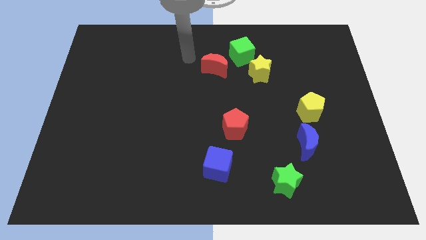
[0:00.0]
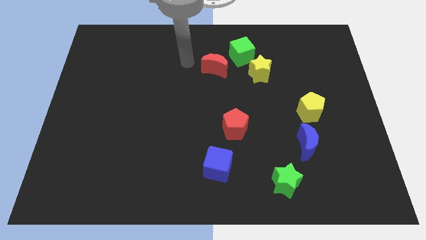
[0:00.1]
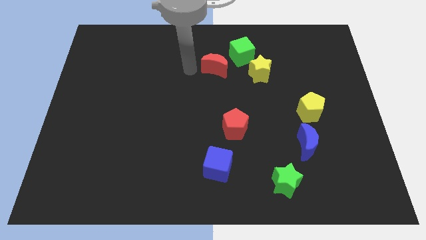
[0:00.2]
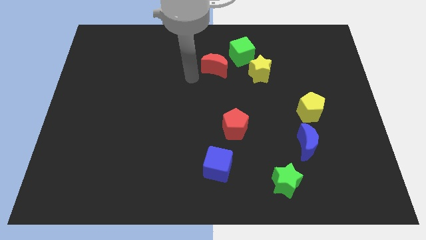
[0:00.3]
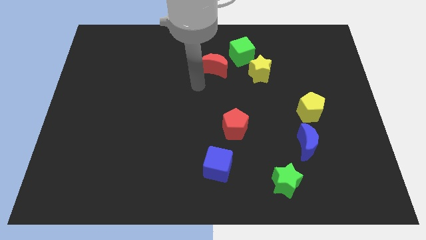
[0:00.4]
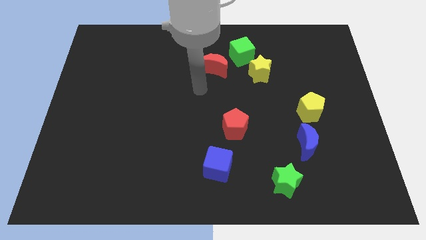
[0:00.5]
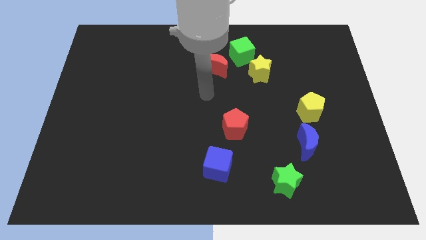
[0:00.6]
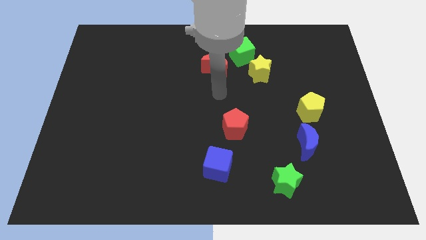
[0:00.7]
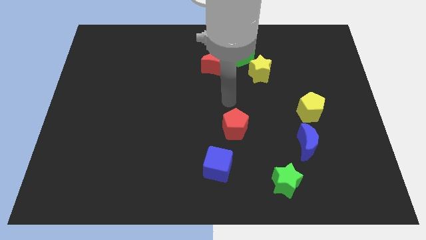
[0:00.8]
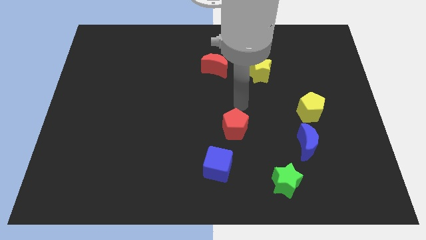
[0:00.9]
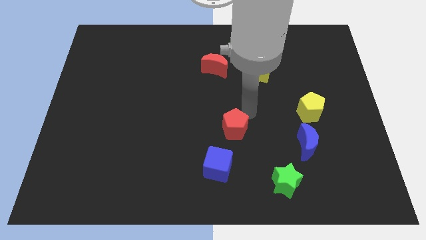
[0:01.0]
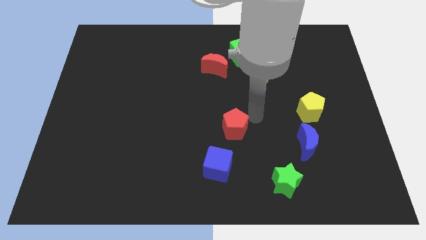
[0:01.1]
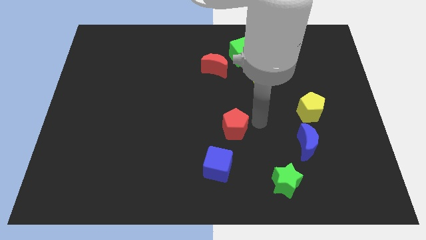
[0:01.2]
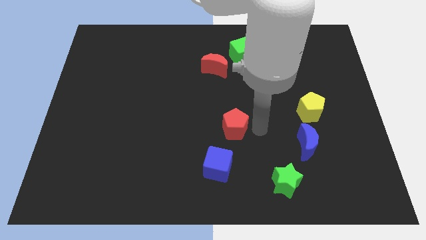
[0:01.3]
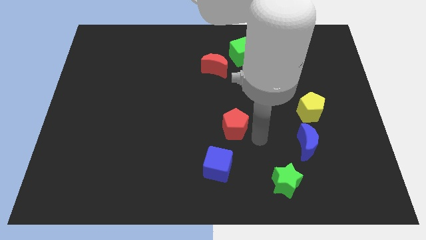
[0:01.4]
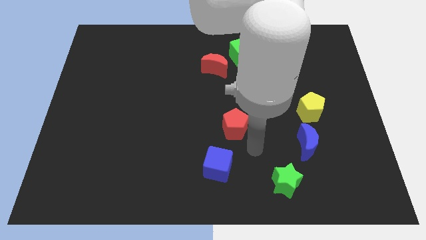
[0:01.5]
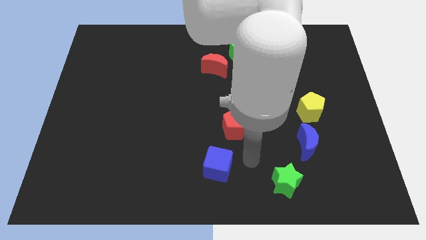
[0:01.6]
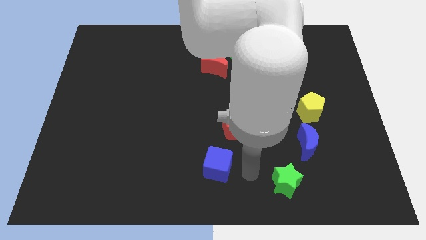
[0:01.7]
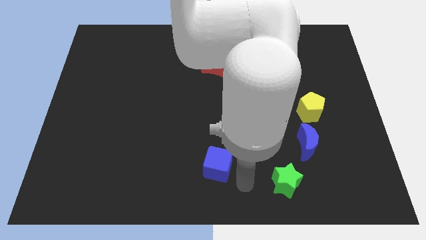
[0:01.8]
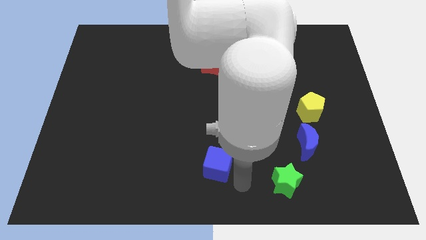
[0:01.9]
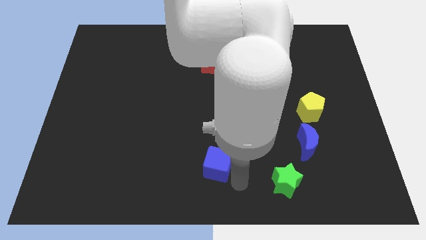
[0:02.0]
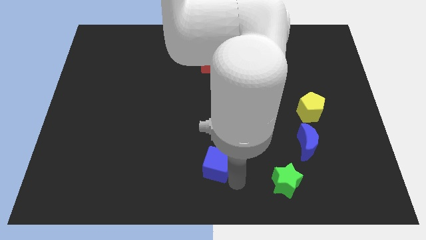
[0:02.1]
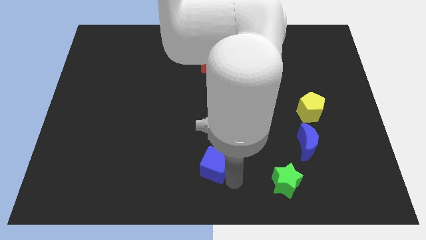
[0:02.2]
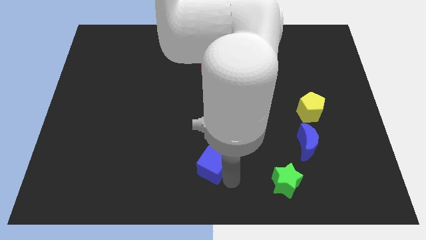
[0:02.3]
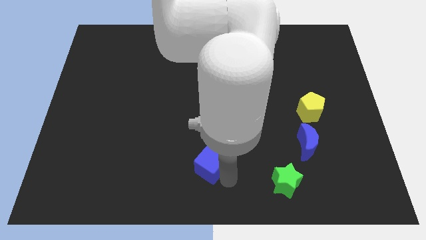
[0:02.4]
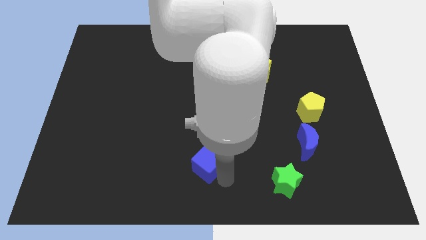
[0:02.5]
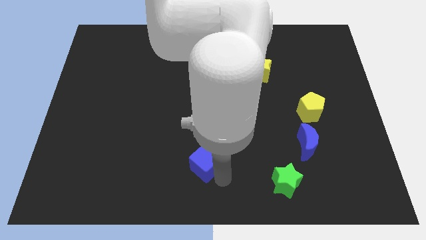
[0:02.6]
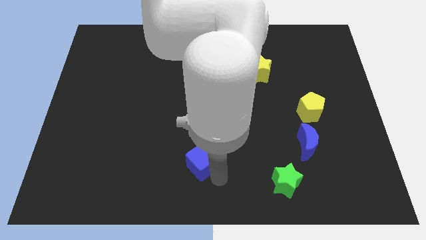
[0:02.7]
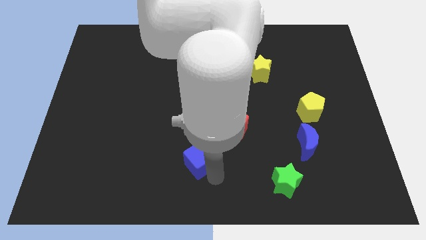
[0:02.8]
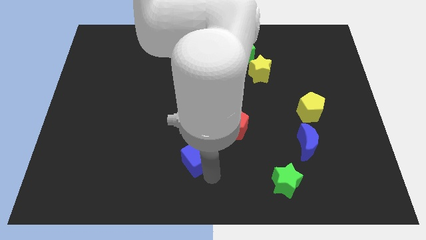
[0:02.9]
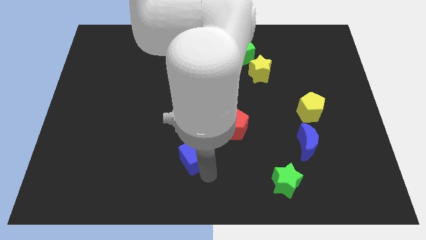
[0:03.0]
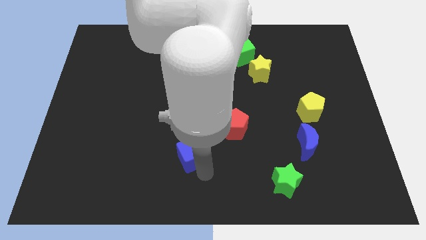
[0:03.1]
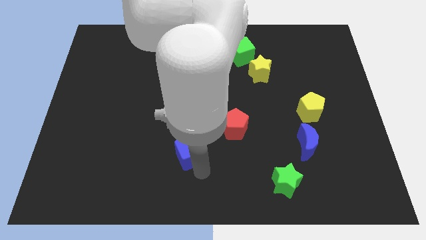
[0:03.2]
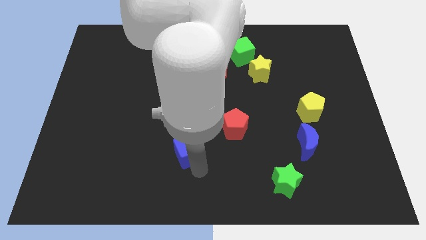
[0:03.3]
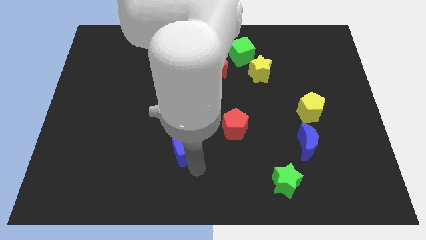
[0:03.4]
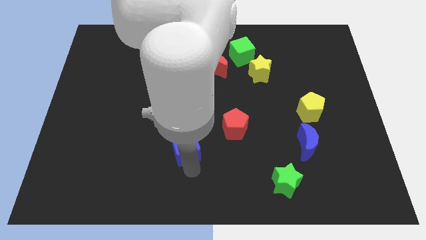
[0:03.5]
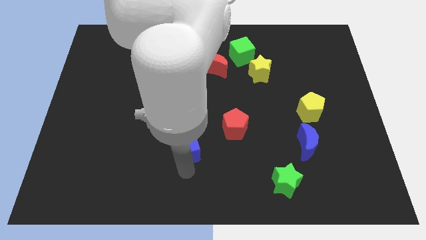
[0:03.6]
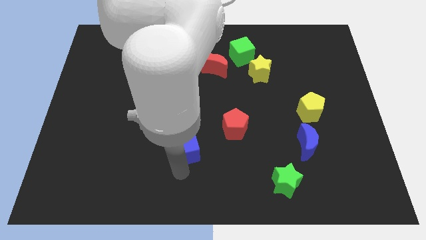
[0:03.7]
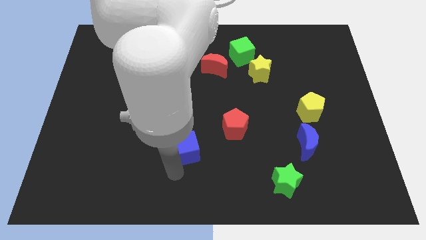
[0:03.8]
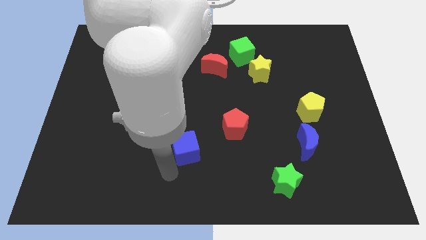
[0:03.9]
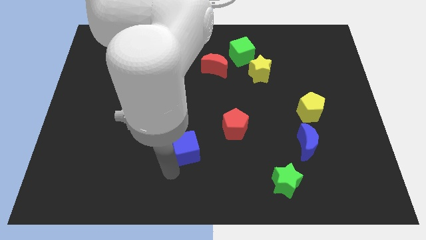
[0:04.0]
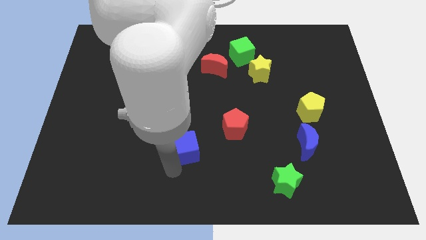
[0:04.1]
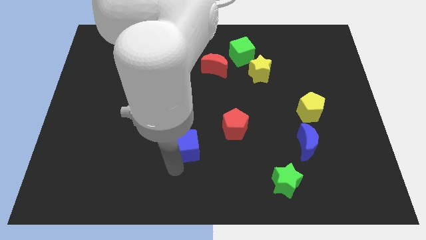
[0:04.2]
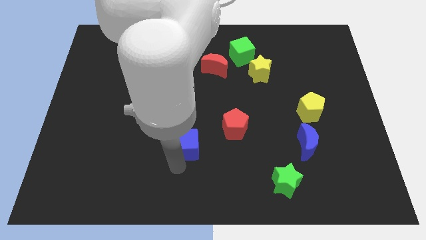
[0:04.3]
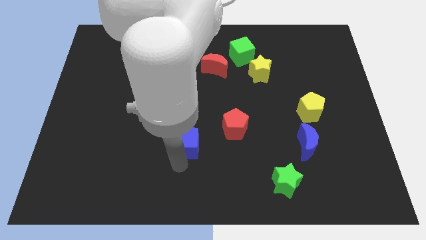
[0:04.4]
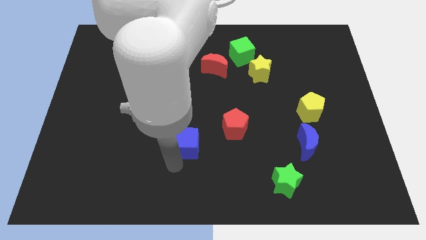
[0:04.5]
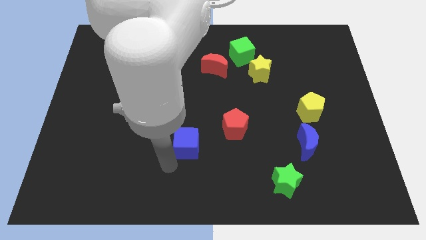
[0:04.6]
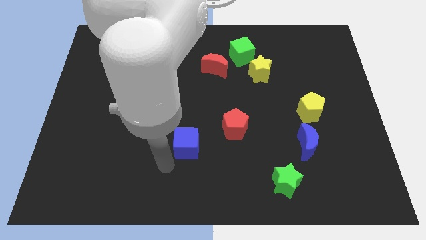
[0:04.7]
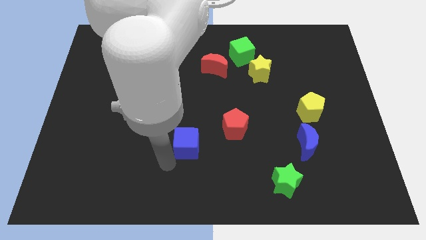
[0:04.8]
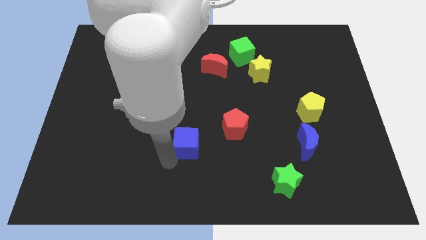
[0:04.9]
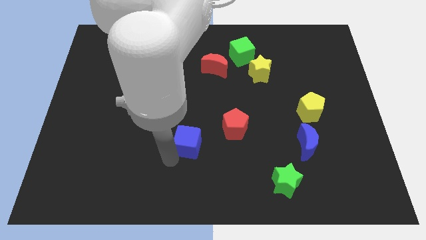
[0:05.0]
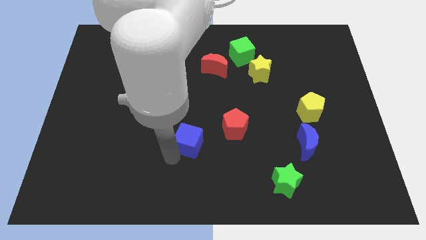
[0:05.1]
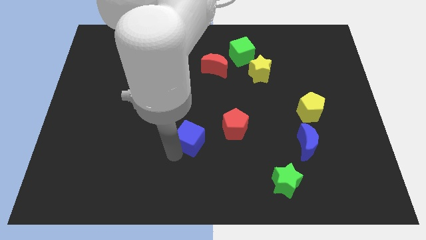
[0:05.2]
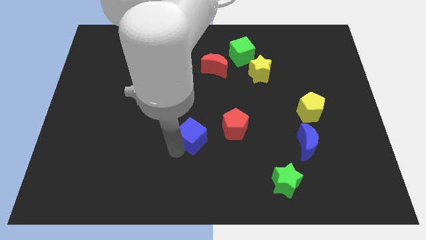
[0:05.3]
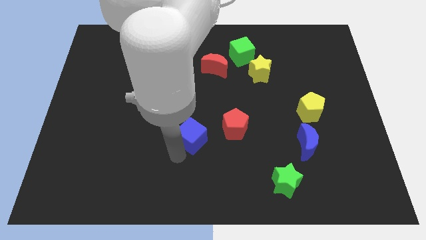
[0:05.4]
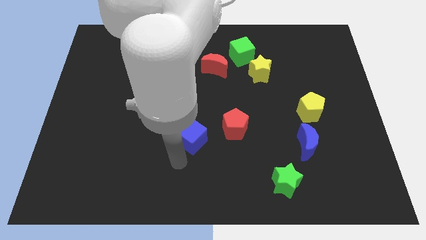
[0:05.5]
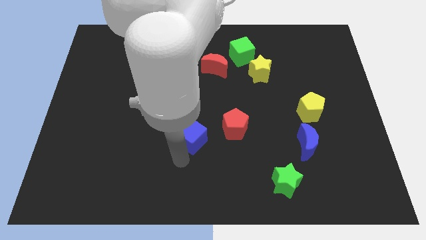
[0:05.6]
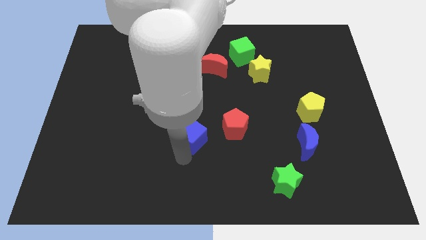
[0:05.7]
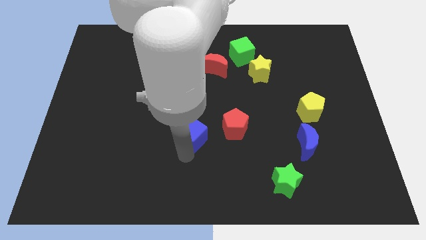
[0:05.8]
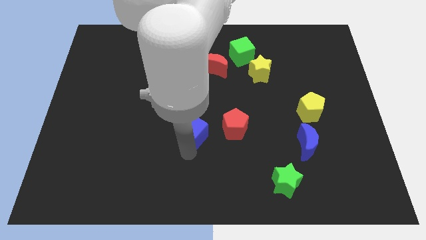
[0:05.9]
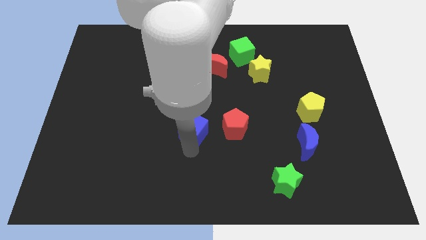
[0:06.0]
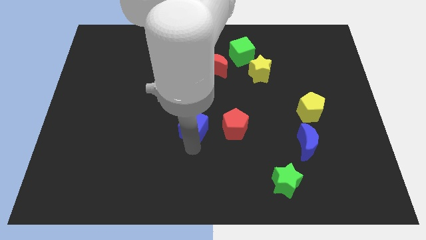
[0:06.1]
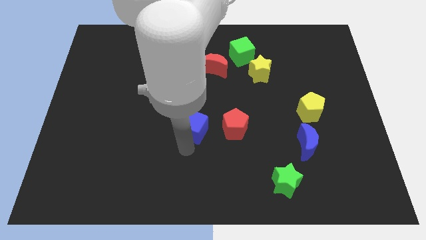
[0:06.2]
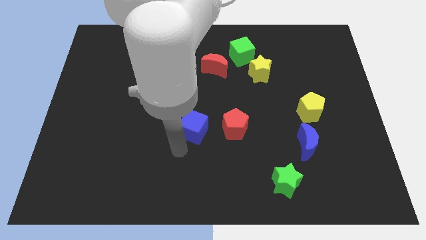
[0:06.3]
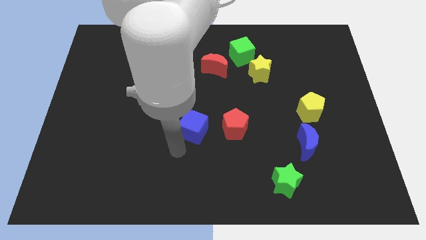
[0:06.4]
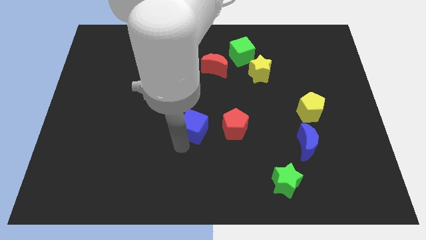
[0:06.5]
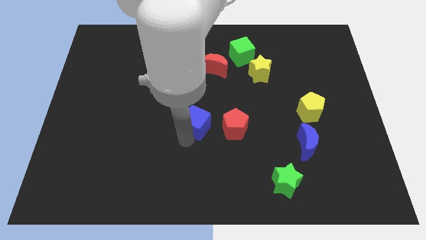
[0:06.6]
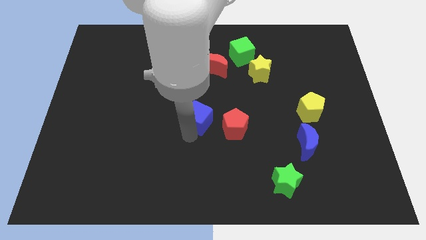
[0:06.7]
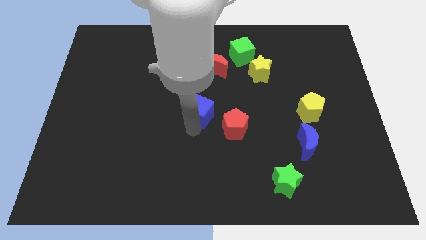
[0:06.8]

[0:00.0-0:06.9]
slide the blue cube to the bottom of the red moon

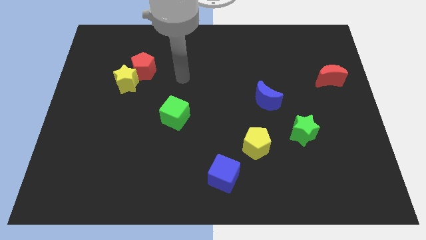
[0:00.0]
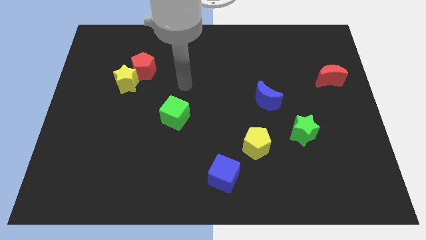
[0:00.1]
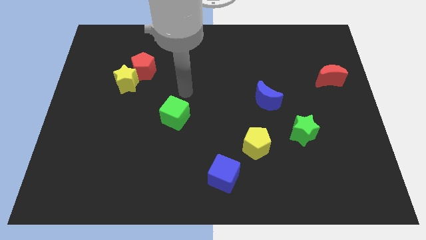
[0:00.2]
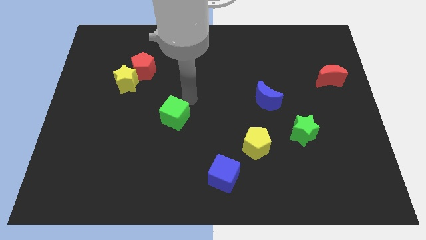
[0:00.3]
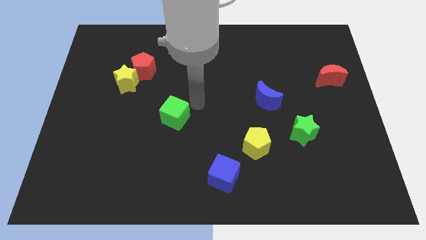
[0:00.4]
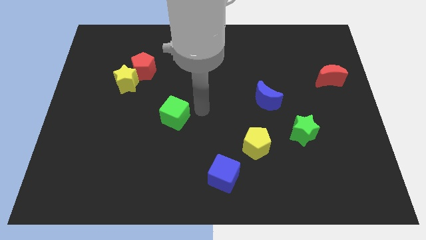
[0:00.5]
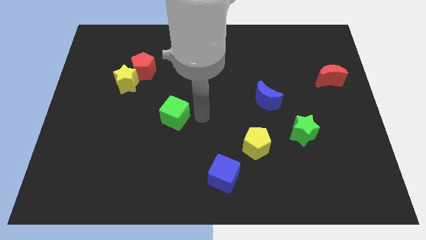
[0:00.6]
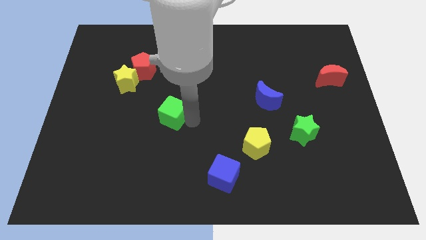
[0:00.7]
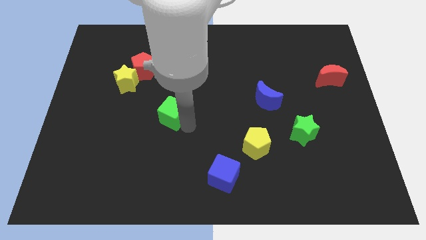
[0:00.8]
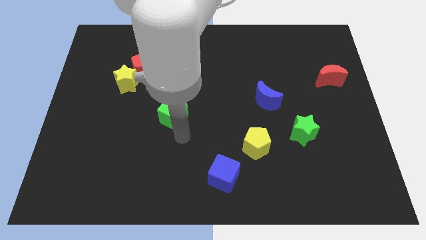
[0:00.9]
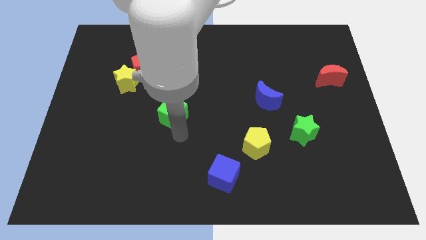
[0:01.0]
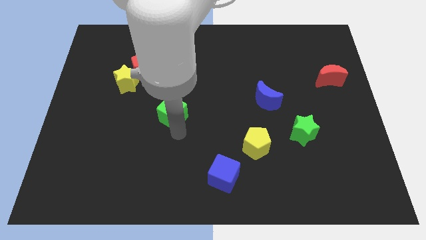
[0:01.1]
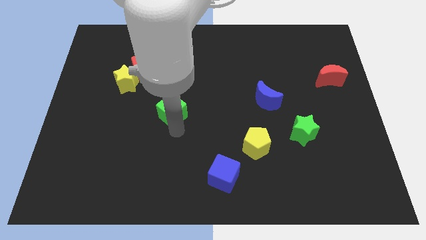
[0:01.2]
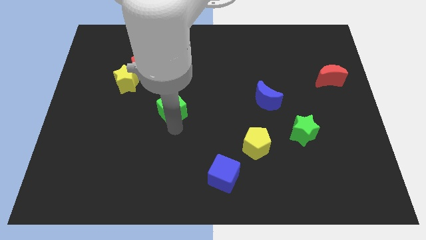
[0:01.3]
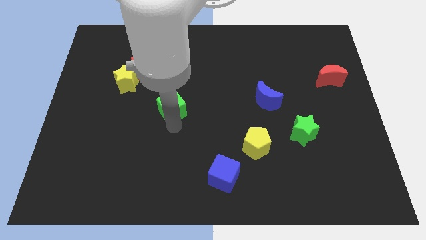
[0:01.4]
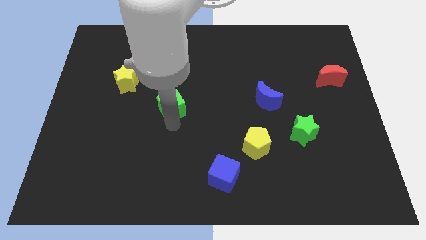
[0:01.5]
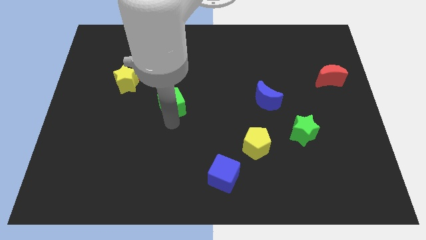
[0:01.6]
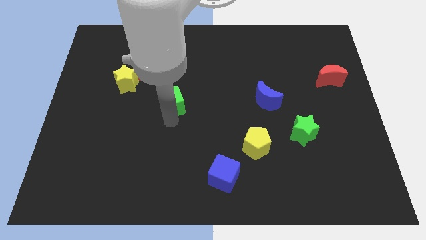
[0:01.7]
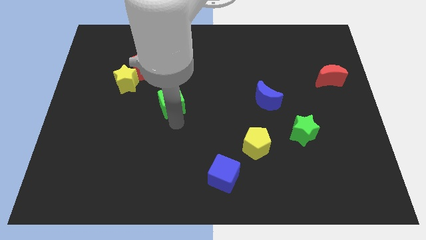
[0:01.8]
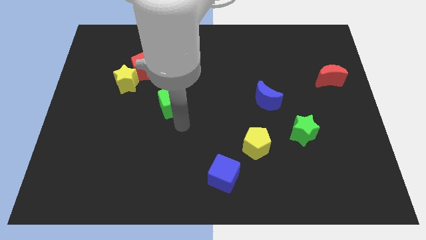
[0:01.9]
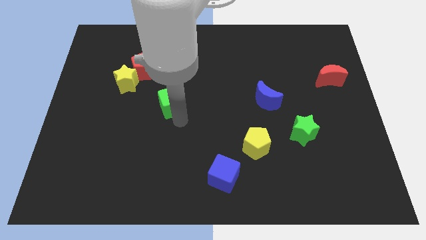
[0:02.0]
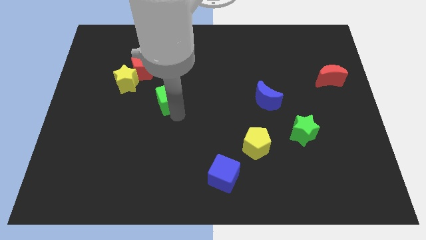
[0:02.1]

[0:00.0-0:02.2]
move the green cube to the bottom right of the red pentagon
